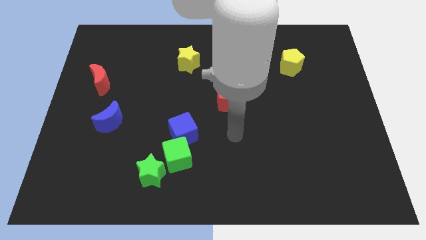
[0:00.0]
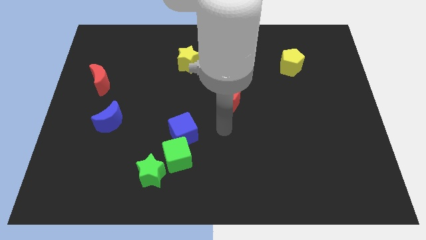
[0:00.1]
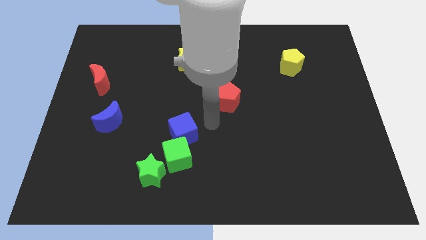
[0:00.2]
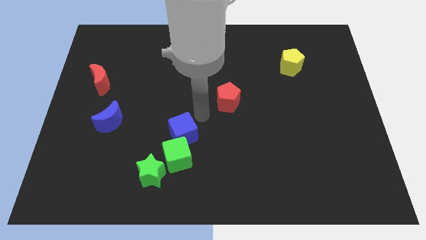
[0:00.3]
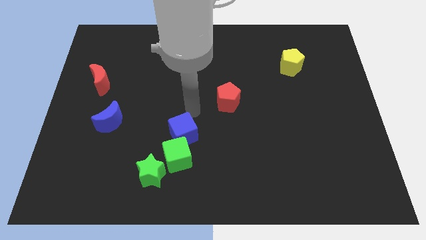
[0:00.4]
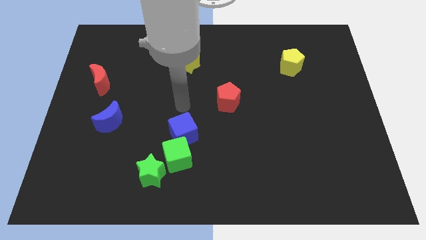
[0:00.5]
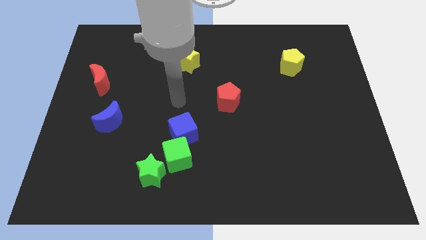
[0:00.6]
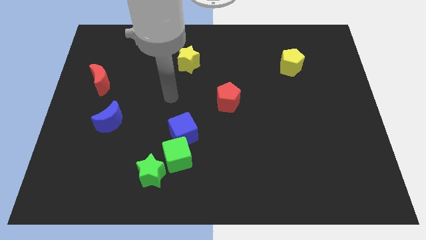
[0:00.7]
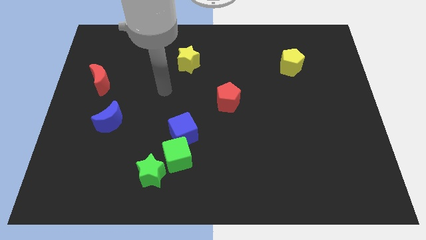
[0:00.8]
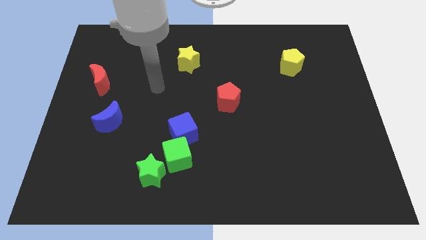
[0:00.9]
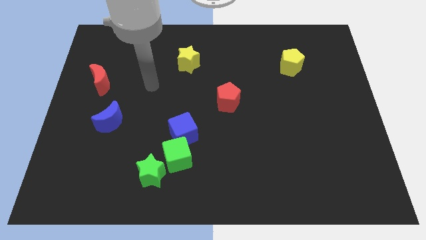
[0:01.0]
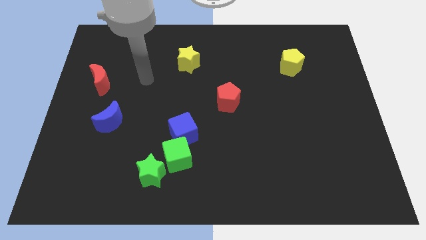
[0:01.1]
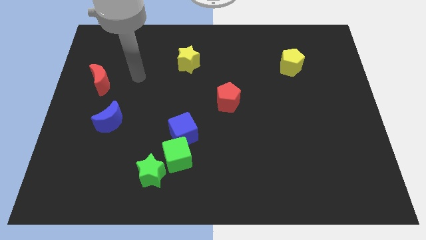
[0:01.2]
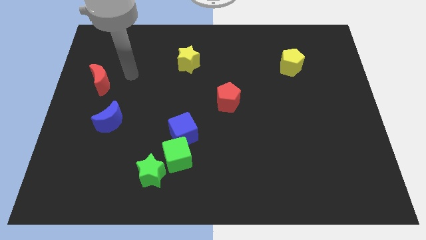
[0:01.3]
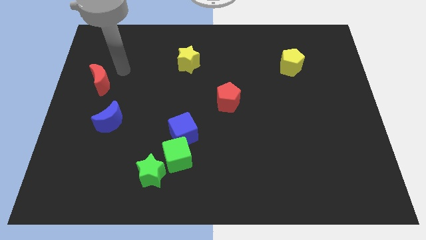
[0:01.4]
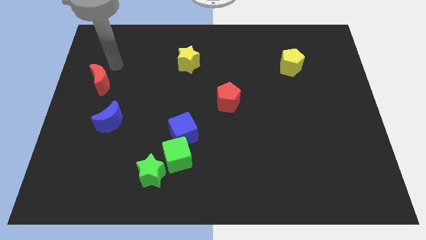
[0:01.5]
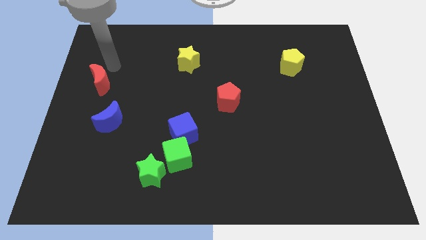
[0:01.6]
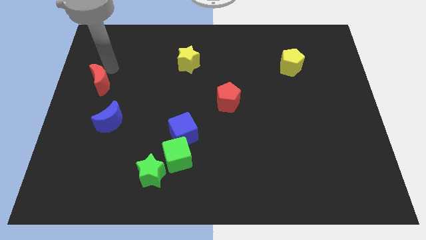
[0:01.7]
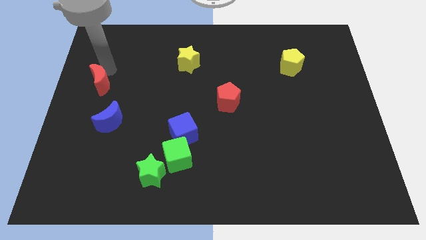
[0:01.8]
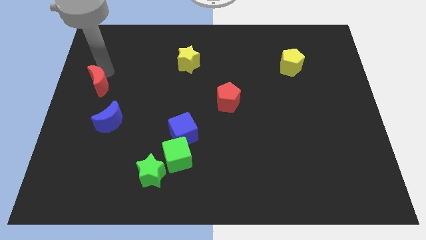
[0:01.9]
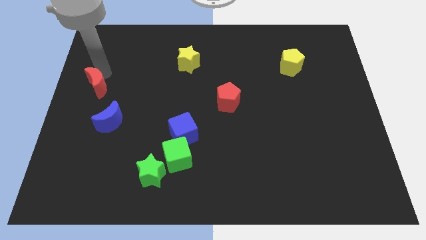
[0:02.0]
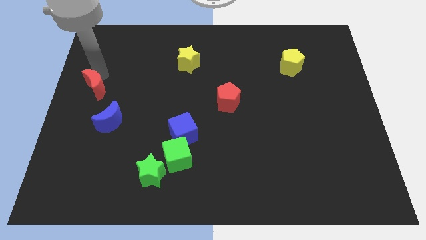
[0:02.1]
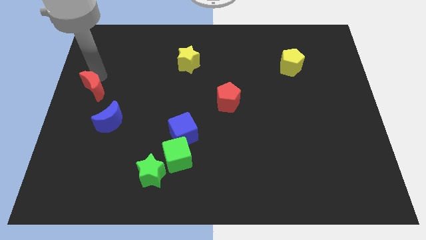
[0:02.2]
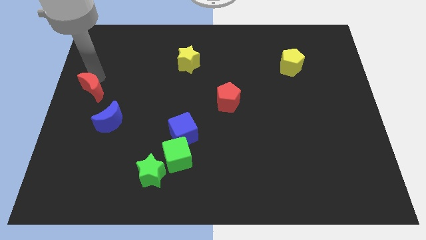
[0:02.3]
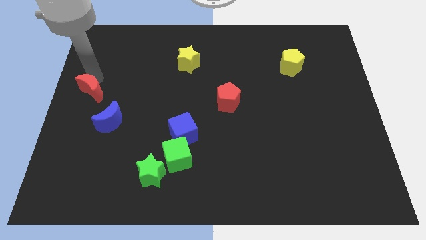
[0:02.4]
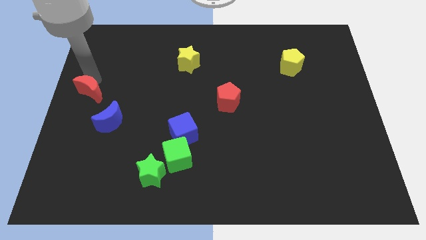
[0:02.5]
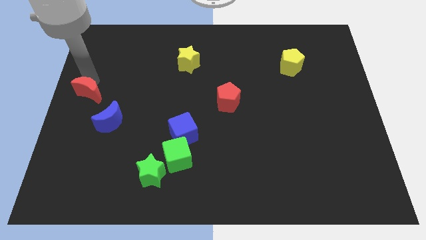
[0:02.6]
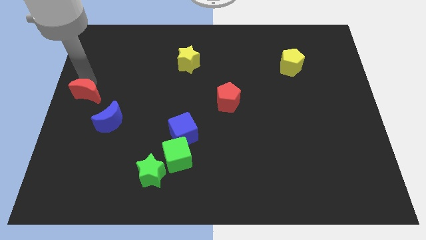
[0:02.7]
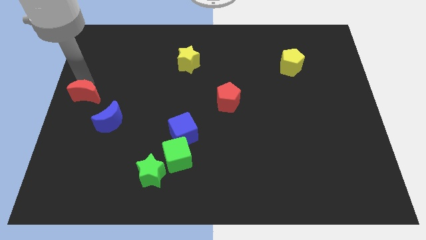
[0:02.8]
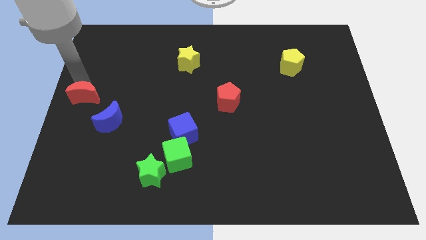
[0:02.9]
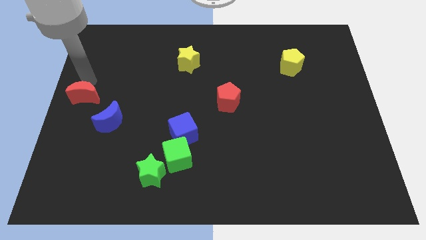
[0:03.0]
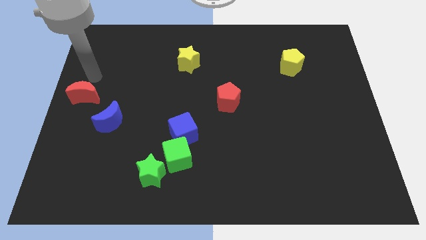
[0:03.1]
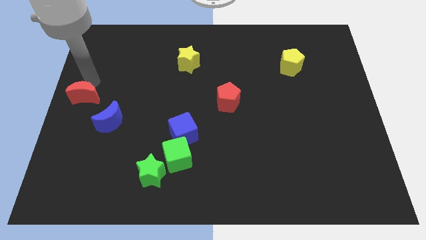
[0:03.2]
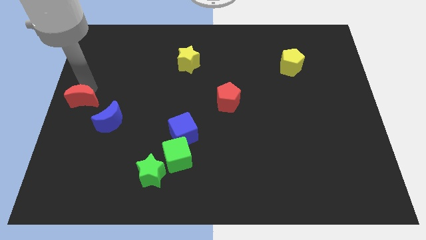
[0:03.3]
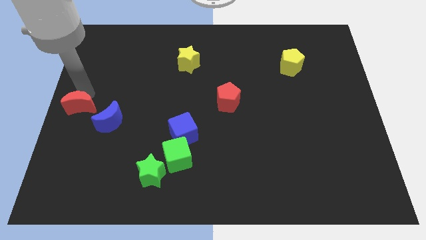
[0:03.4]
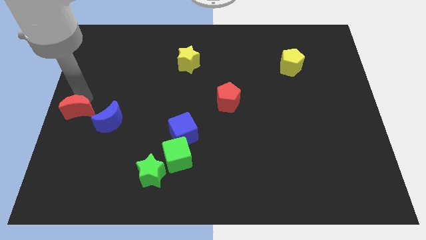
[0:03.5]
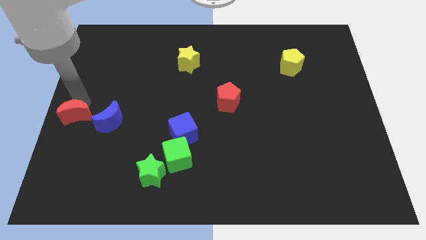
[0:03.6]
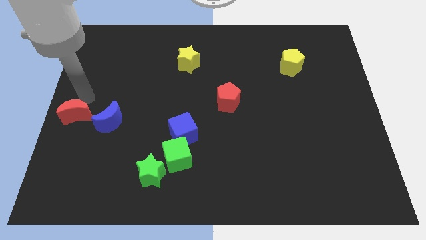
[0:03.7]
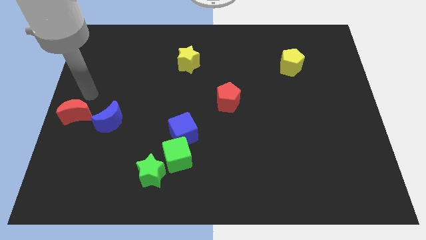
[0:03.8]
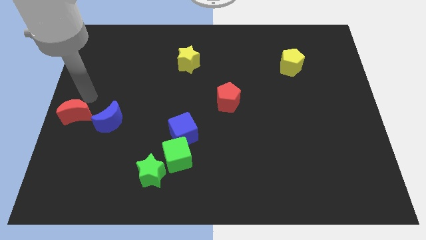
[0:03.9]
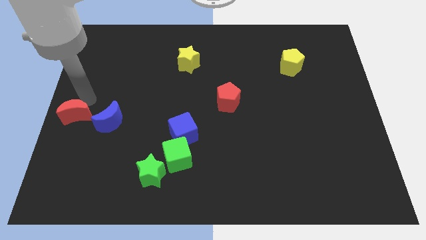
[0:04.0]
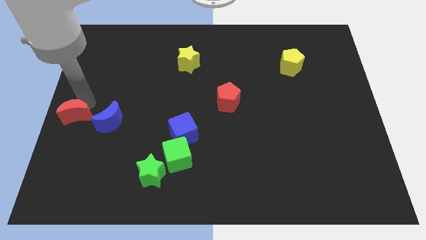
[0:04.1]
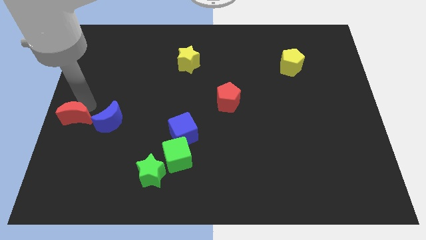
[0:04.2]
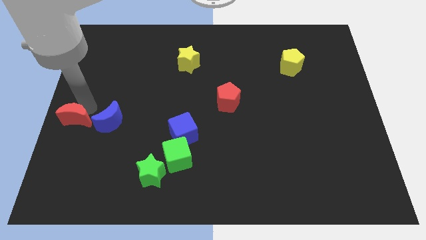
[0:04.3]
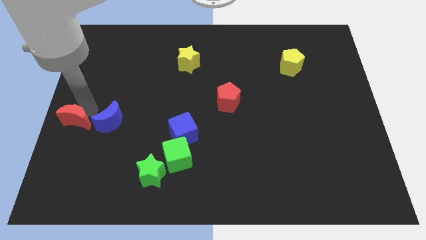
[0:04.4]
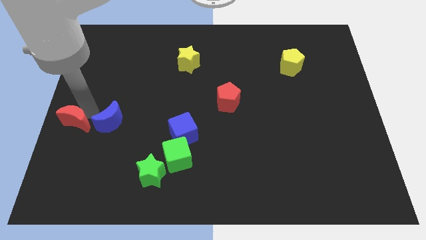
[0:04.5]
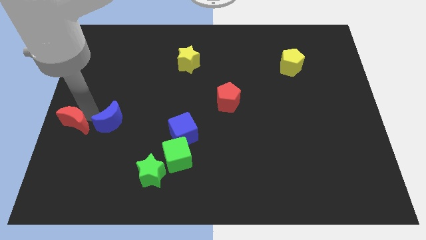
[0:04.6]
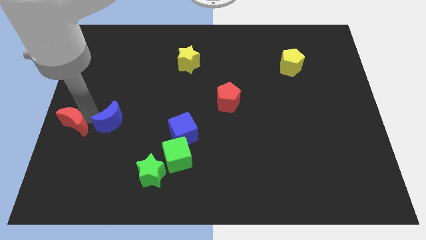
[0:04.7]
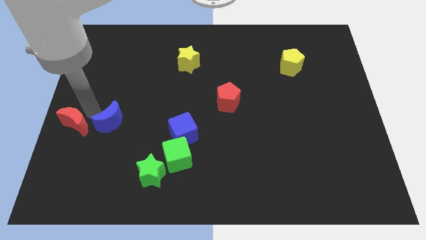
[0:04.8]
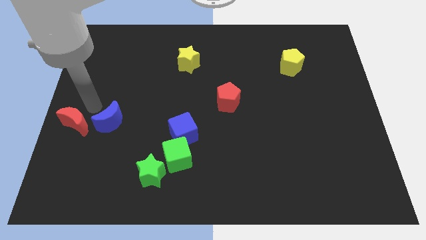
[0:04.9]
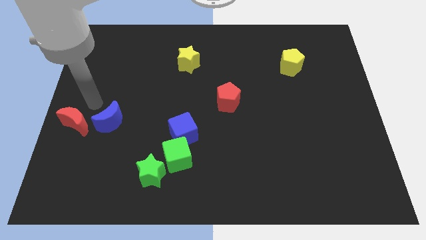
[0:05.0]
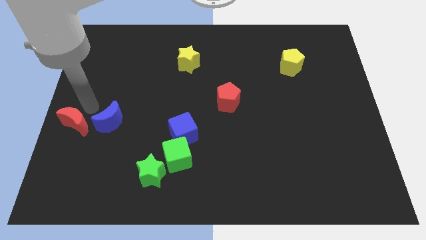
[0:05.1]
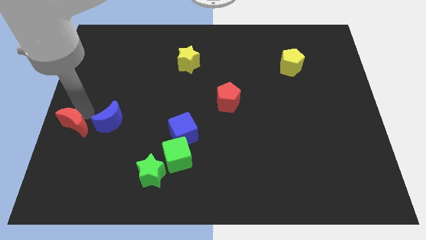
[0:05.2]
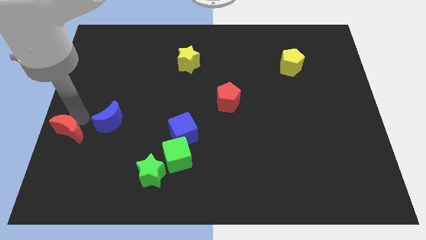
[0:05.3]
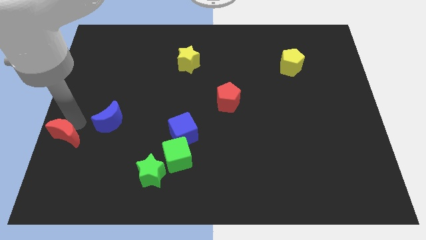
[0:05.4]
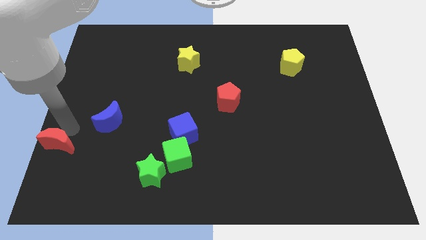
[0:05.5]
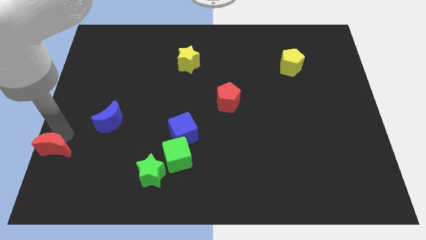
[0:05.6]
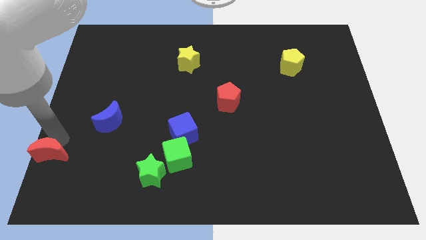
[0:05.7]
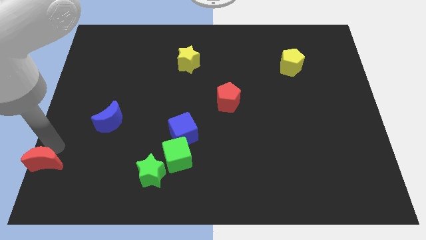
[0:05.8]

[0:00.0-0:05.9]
put the red moon to the bottom left

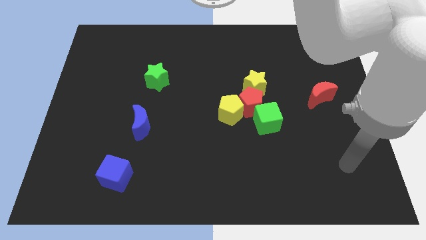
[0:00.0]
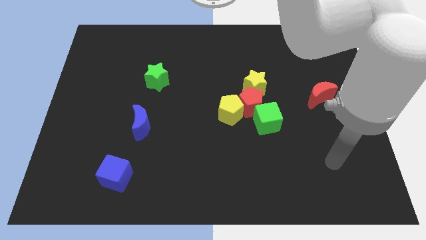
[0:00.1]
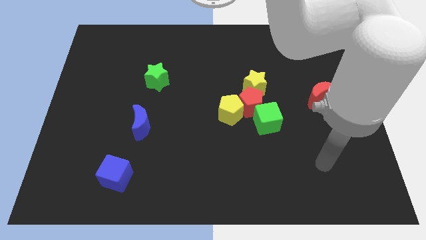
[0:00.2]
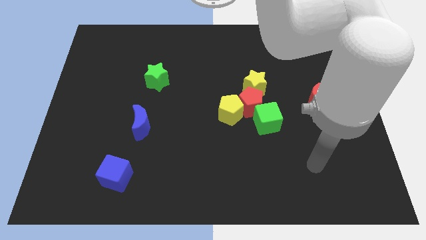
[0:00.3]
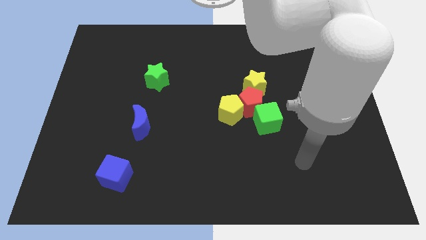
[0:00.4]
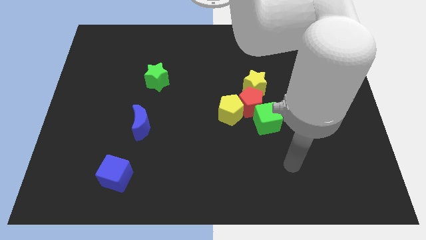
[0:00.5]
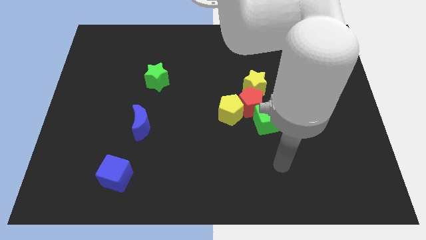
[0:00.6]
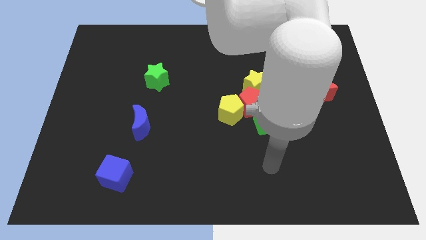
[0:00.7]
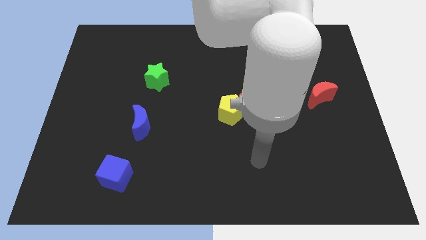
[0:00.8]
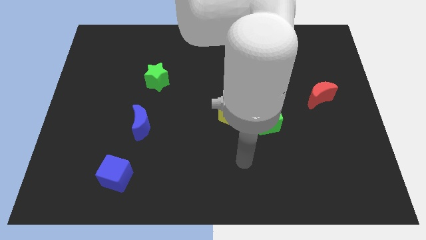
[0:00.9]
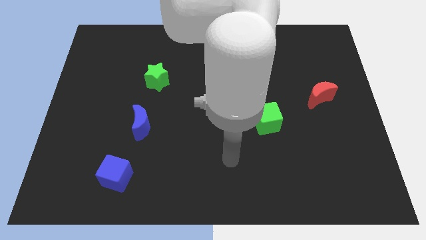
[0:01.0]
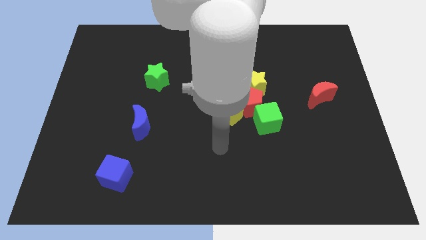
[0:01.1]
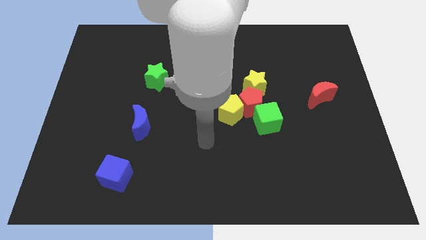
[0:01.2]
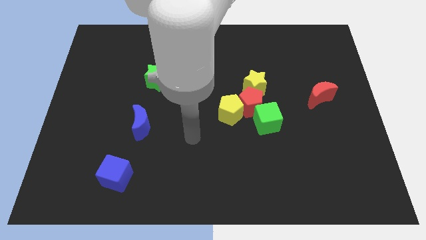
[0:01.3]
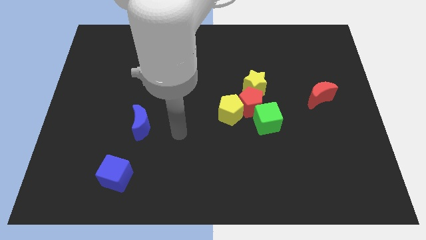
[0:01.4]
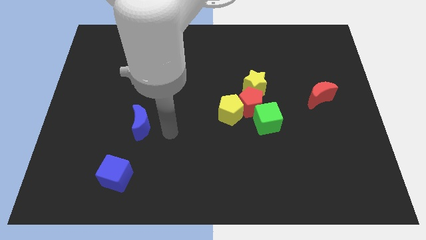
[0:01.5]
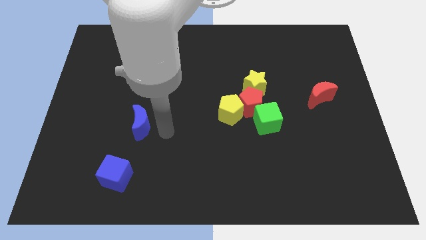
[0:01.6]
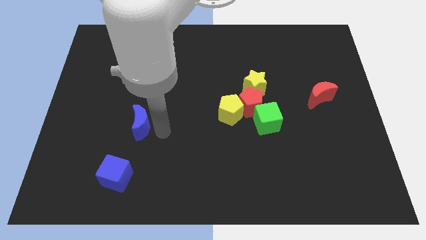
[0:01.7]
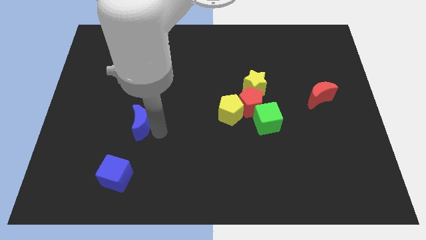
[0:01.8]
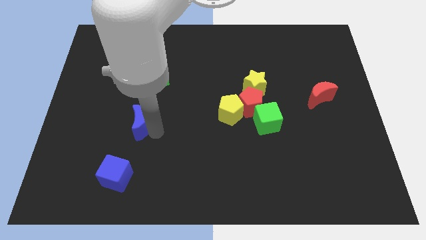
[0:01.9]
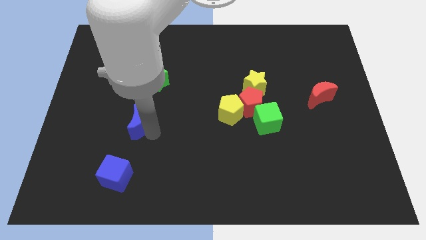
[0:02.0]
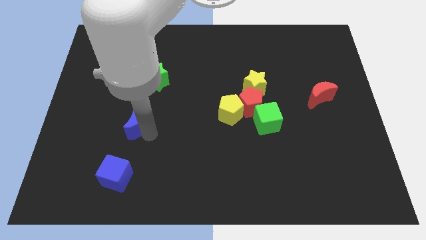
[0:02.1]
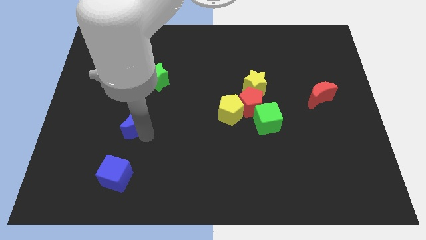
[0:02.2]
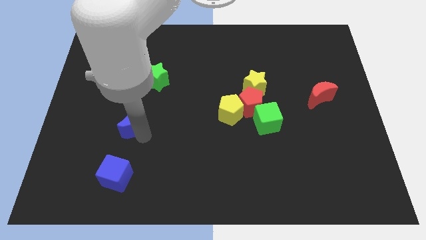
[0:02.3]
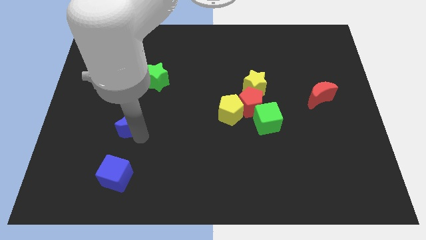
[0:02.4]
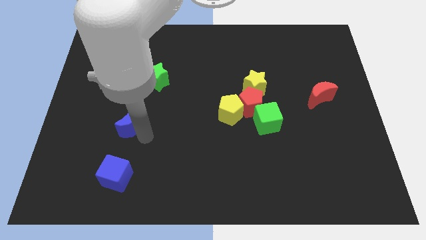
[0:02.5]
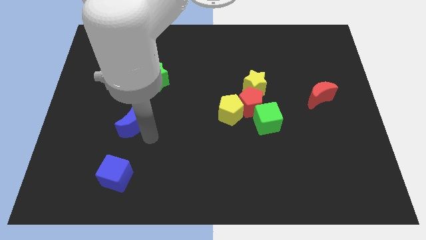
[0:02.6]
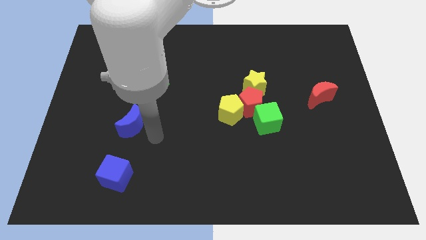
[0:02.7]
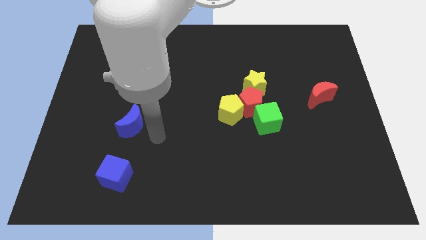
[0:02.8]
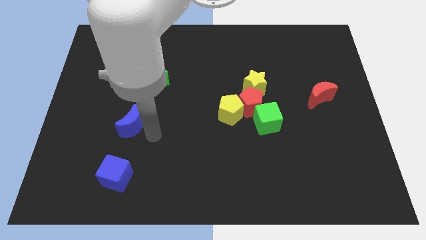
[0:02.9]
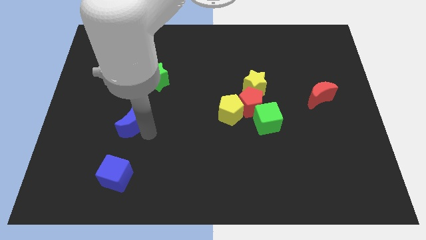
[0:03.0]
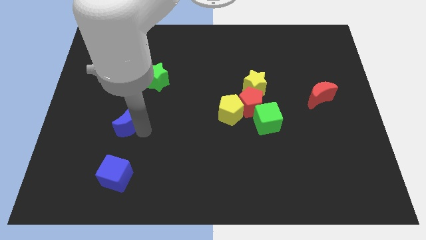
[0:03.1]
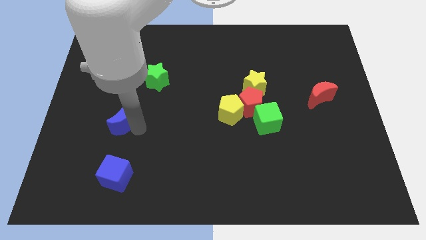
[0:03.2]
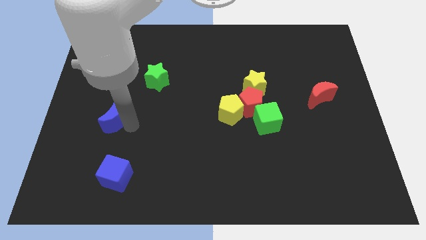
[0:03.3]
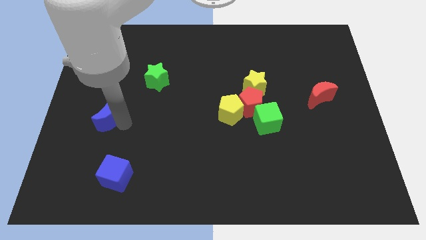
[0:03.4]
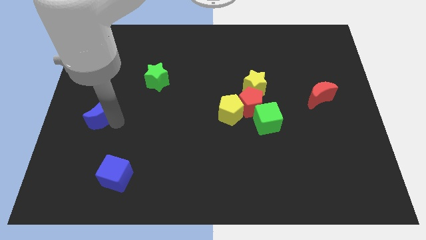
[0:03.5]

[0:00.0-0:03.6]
put the blue moon to the left side
